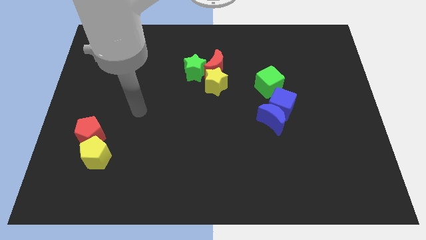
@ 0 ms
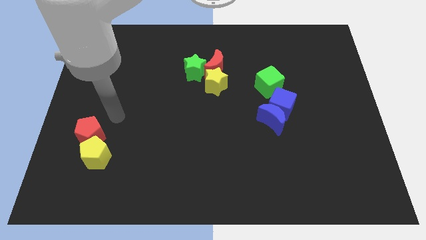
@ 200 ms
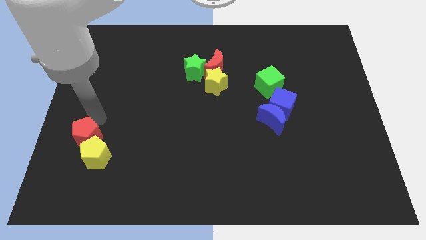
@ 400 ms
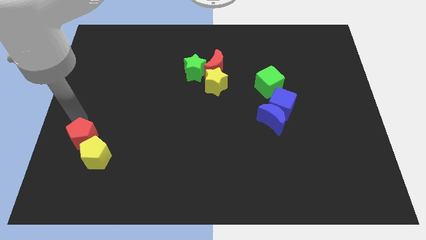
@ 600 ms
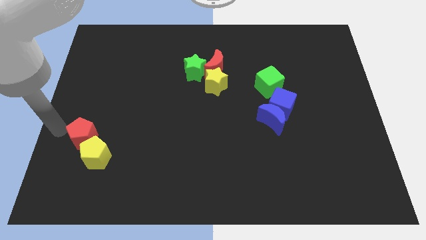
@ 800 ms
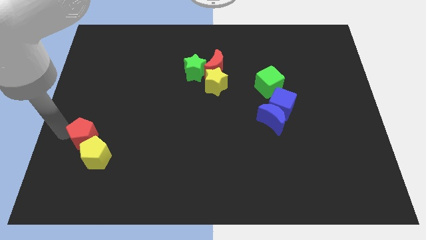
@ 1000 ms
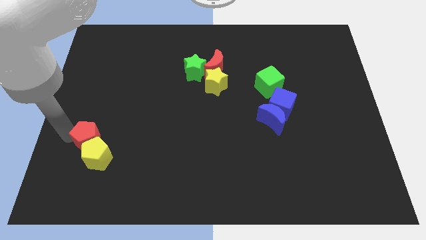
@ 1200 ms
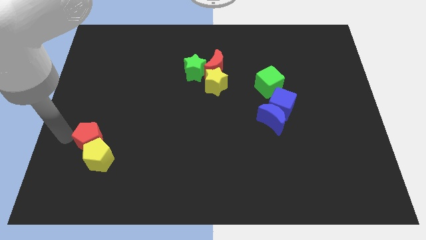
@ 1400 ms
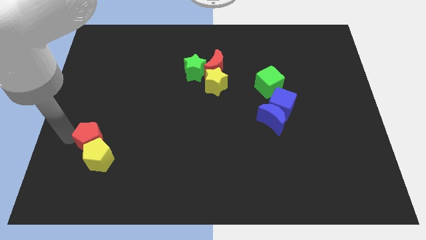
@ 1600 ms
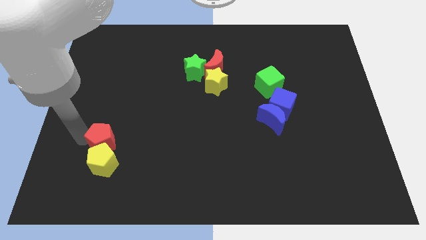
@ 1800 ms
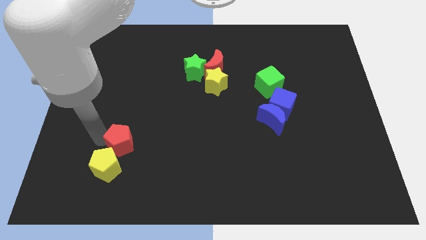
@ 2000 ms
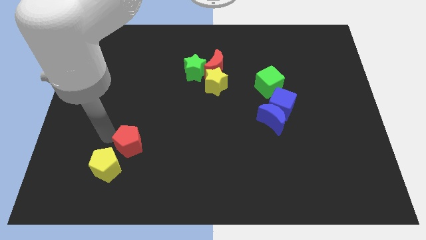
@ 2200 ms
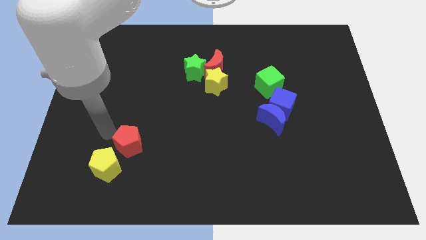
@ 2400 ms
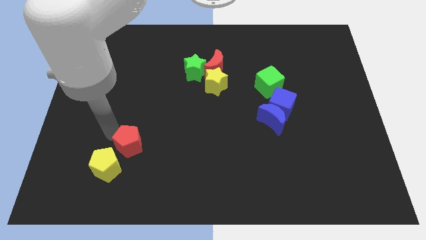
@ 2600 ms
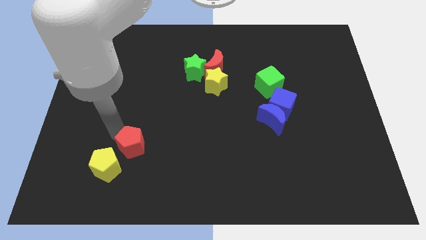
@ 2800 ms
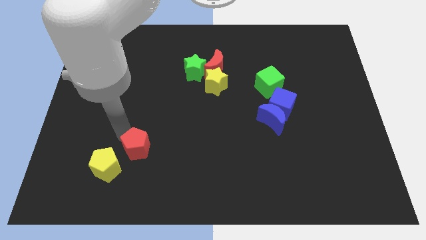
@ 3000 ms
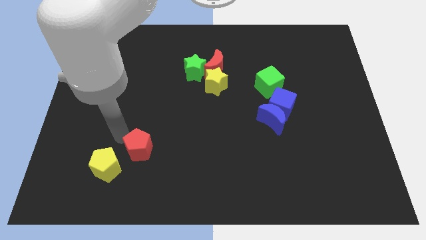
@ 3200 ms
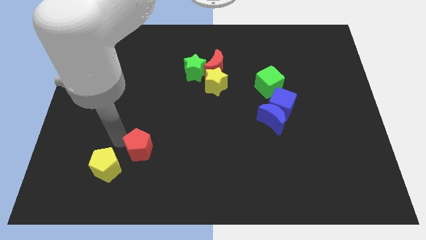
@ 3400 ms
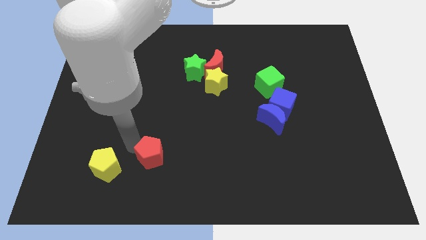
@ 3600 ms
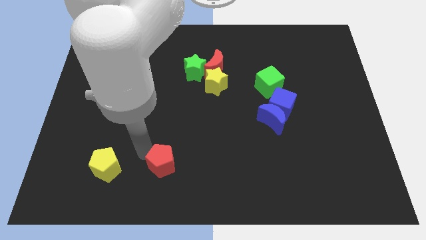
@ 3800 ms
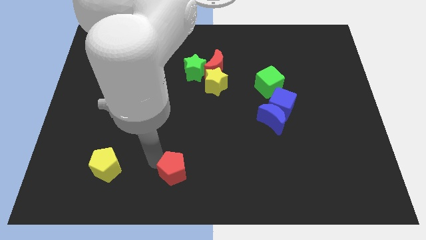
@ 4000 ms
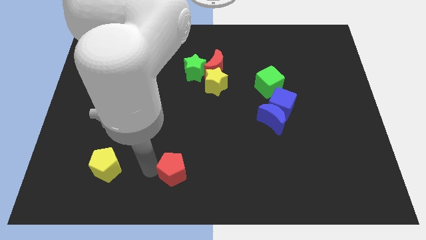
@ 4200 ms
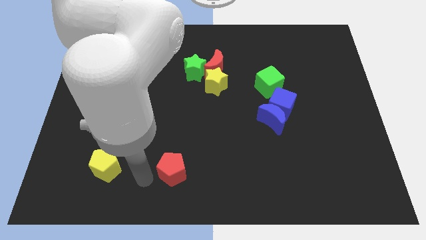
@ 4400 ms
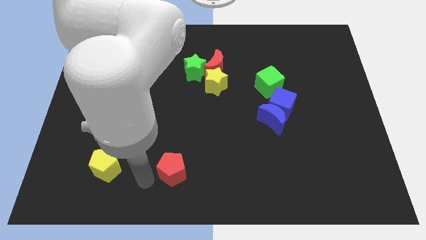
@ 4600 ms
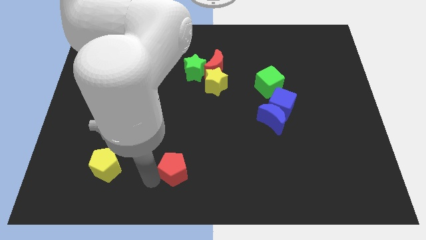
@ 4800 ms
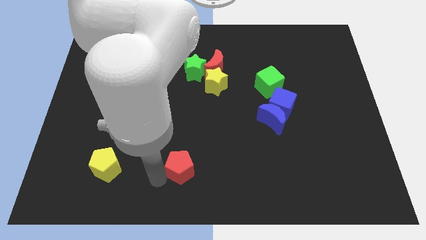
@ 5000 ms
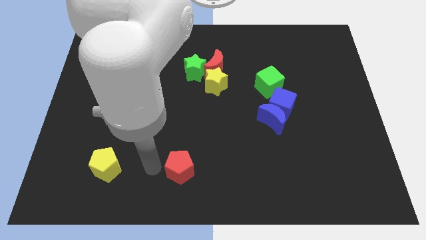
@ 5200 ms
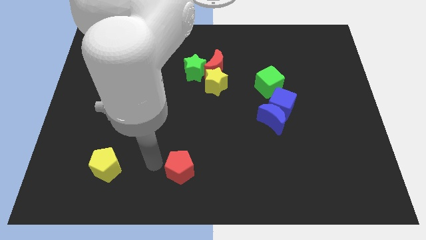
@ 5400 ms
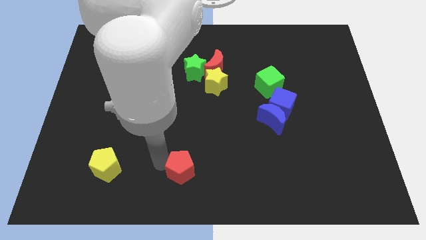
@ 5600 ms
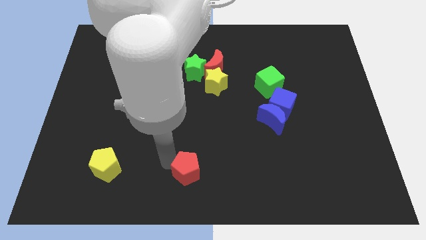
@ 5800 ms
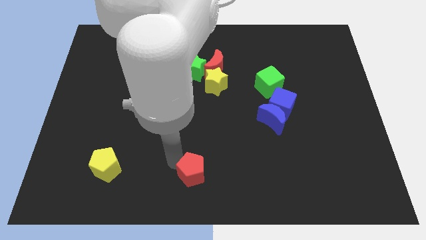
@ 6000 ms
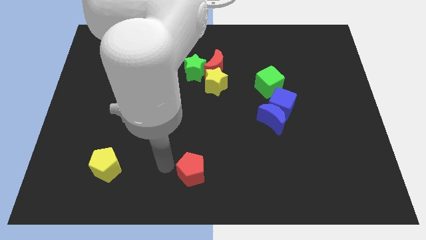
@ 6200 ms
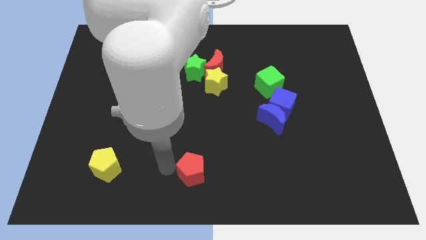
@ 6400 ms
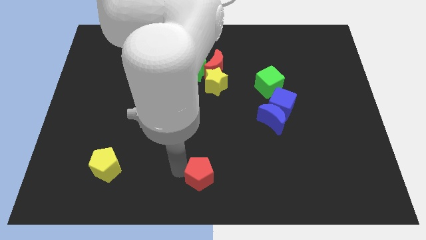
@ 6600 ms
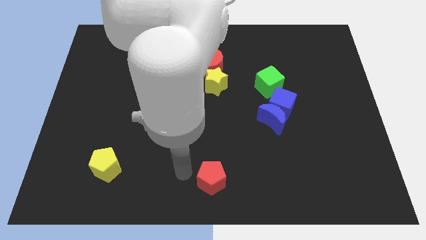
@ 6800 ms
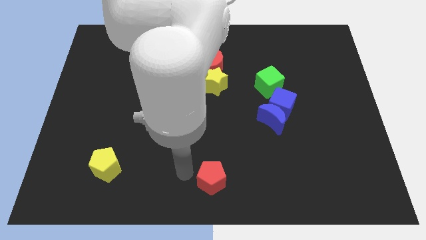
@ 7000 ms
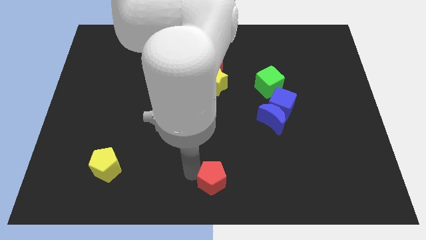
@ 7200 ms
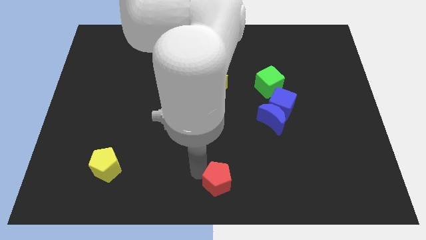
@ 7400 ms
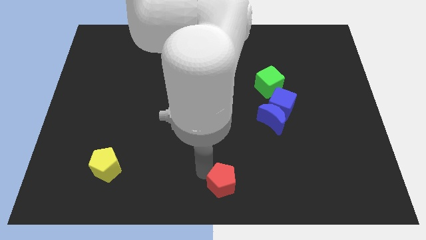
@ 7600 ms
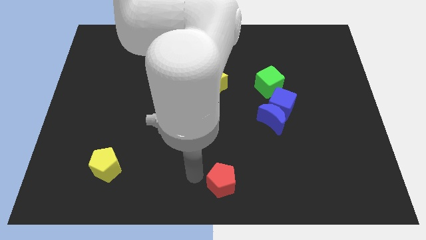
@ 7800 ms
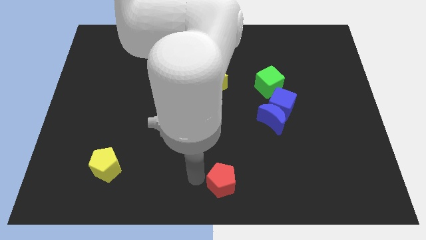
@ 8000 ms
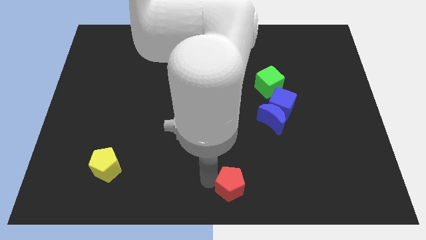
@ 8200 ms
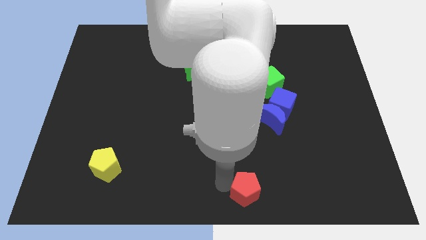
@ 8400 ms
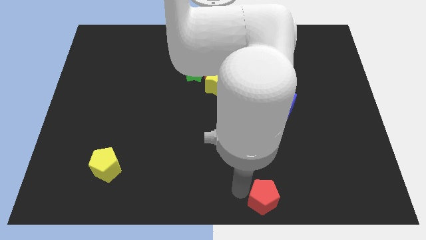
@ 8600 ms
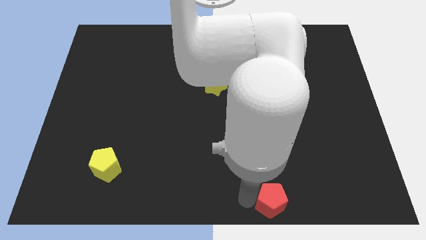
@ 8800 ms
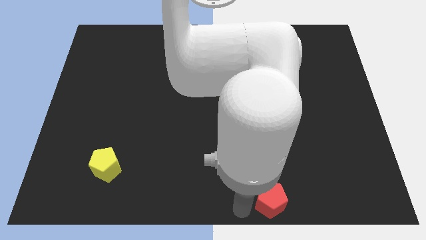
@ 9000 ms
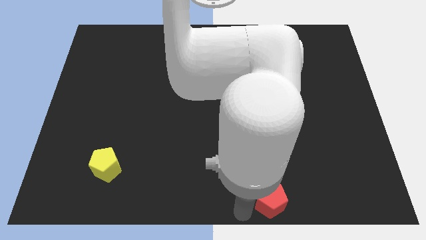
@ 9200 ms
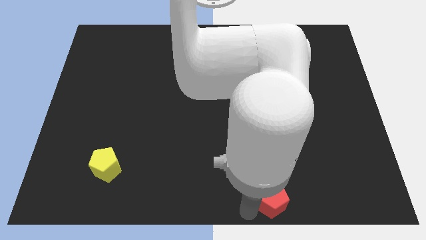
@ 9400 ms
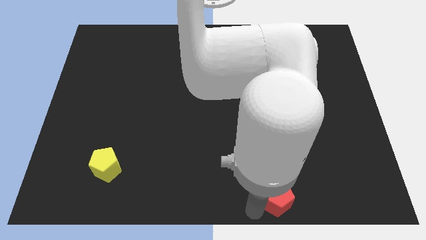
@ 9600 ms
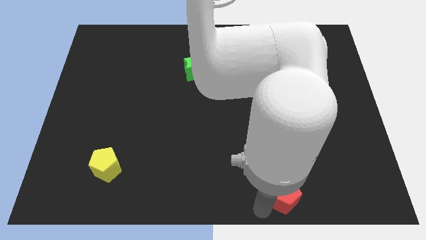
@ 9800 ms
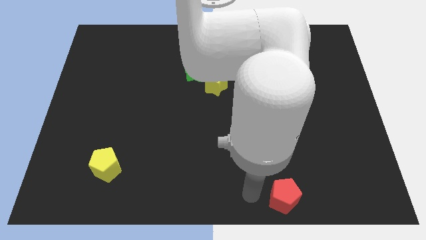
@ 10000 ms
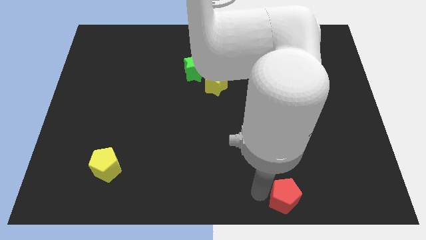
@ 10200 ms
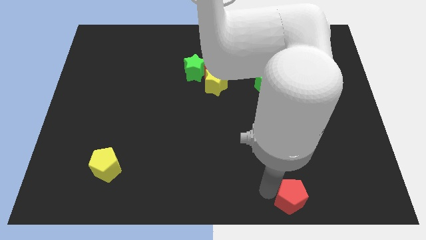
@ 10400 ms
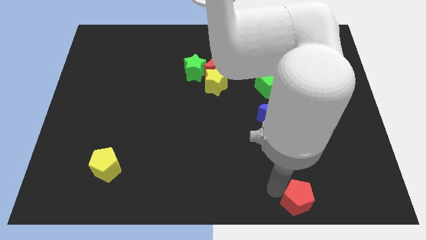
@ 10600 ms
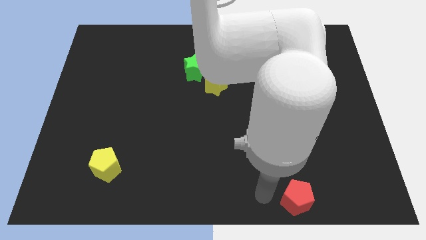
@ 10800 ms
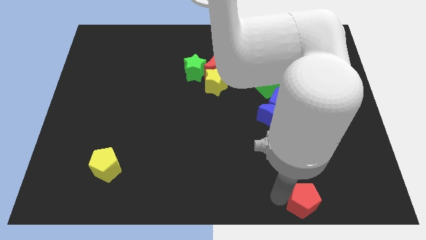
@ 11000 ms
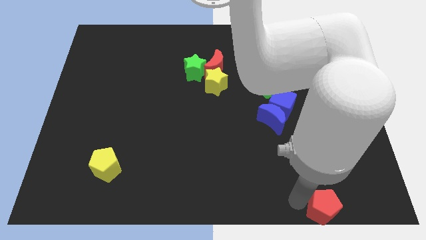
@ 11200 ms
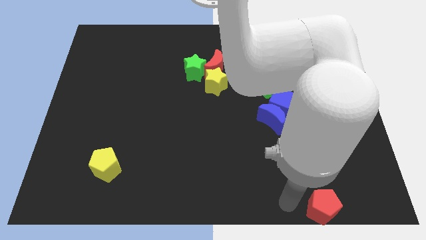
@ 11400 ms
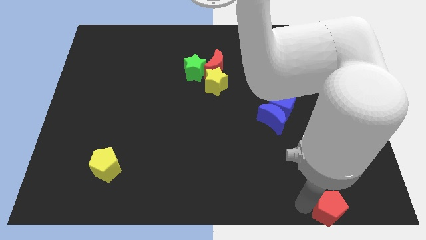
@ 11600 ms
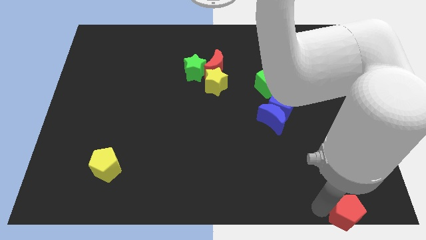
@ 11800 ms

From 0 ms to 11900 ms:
push the red pentagon to the lower right corner

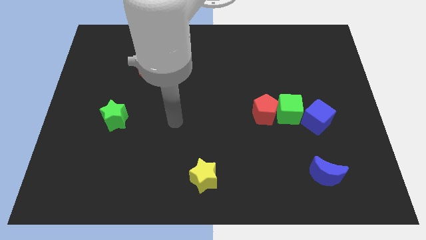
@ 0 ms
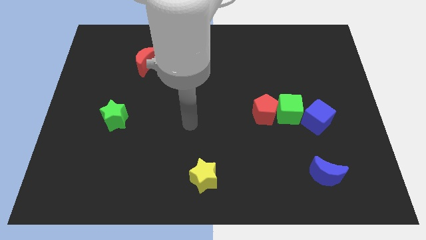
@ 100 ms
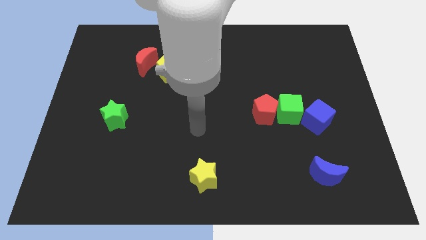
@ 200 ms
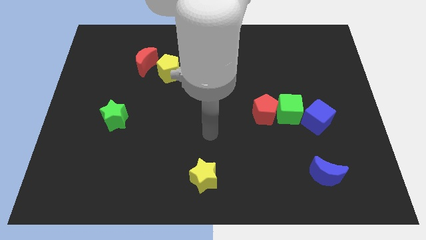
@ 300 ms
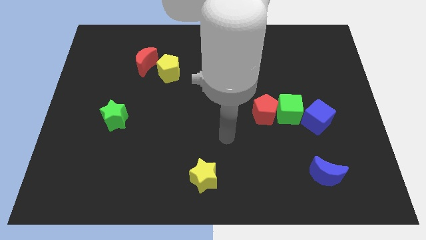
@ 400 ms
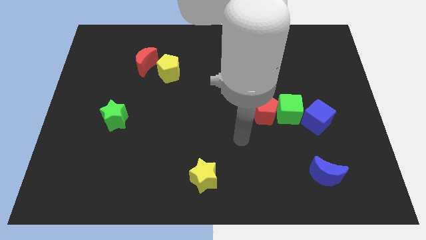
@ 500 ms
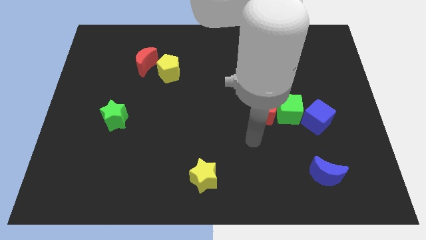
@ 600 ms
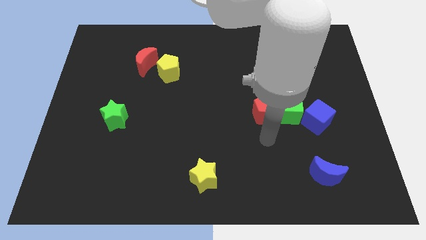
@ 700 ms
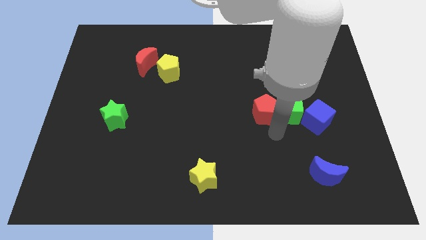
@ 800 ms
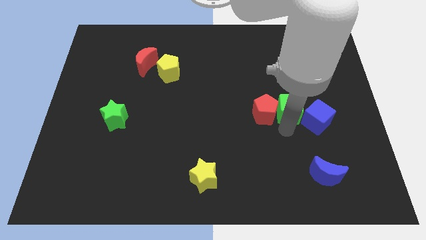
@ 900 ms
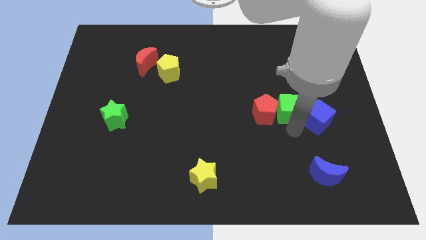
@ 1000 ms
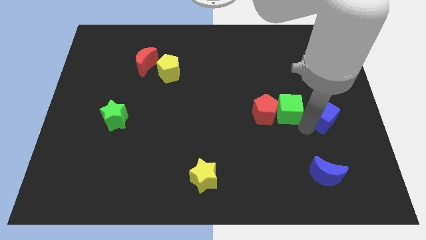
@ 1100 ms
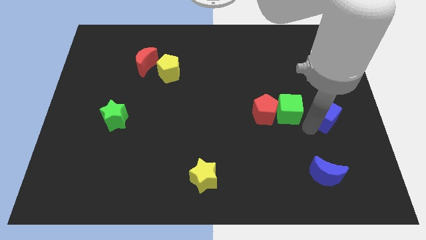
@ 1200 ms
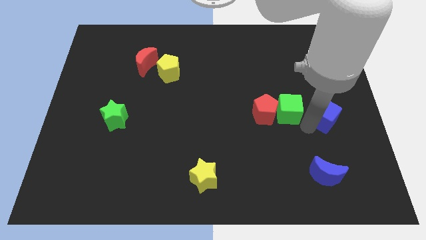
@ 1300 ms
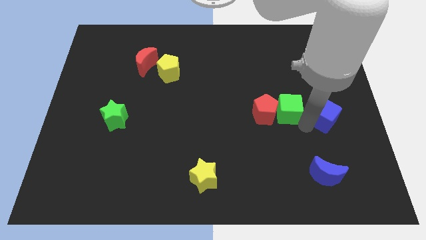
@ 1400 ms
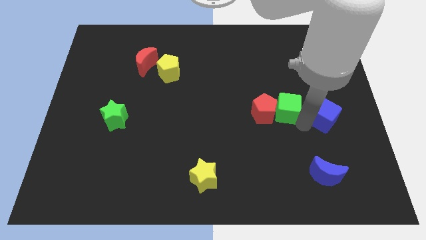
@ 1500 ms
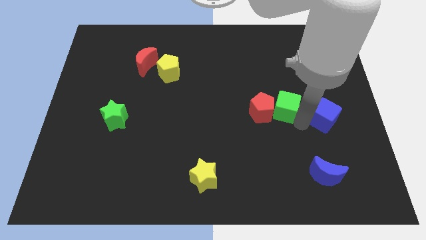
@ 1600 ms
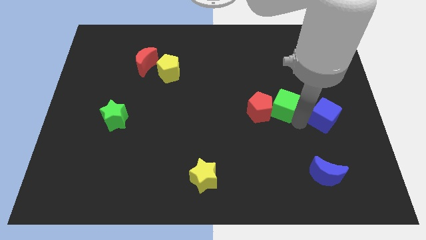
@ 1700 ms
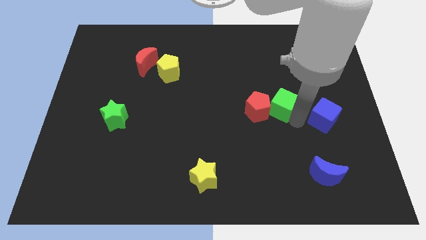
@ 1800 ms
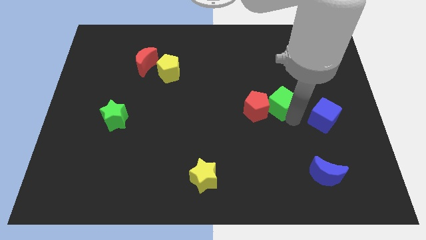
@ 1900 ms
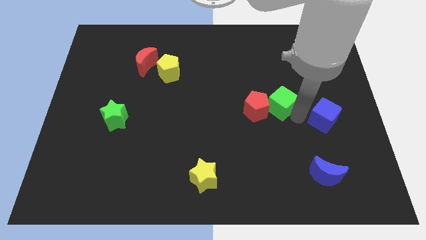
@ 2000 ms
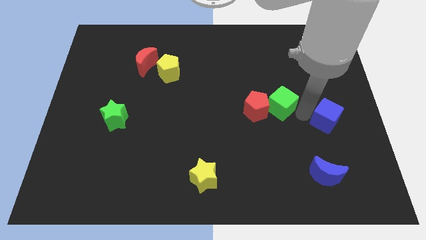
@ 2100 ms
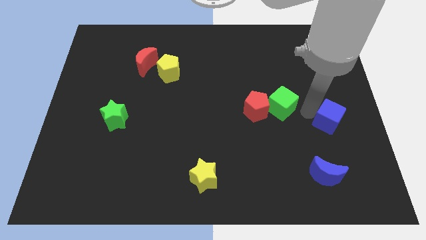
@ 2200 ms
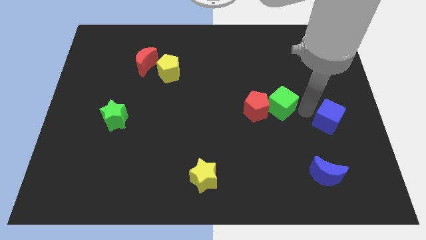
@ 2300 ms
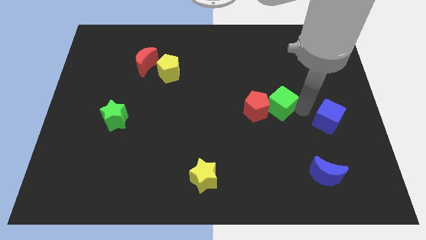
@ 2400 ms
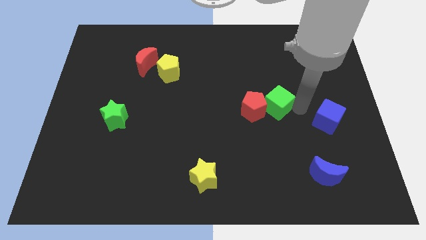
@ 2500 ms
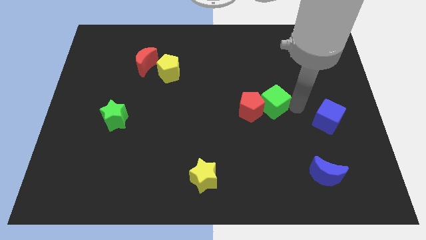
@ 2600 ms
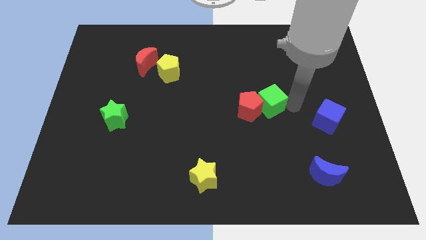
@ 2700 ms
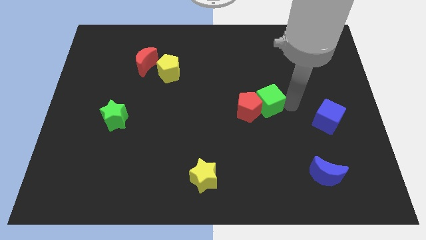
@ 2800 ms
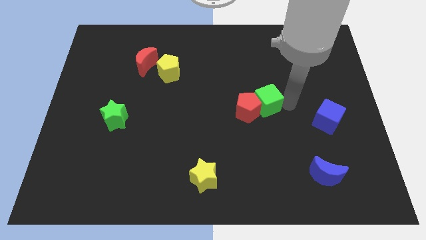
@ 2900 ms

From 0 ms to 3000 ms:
slide the green cube to the center of the board
